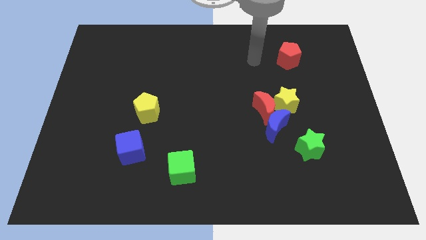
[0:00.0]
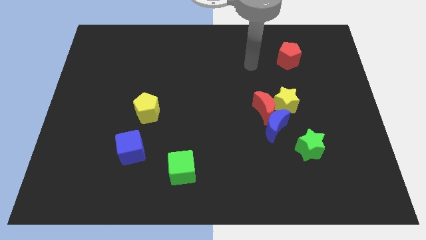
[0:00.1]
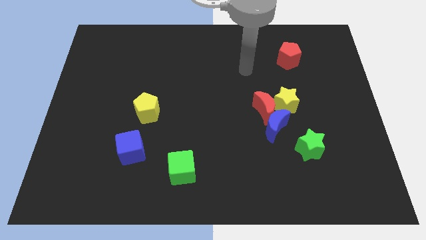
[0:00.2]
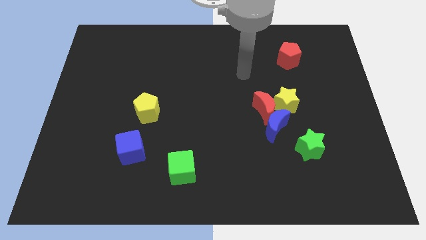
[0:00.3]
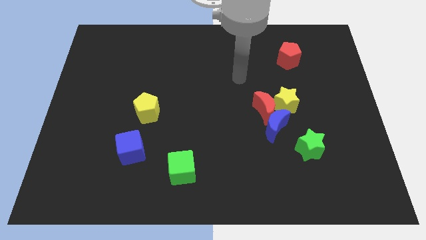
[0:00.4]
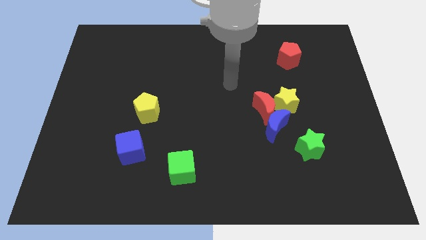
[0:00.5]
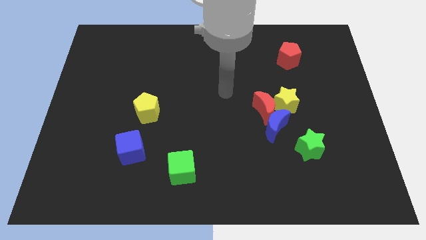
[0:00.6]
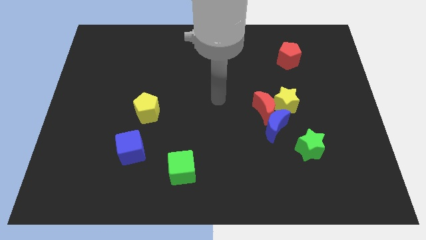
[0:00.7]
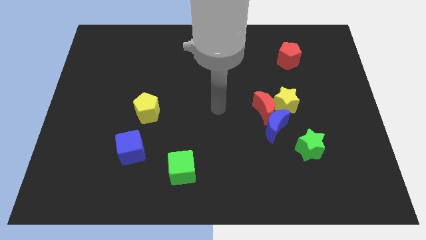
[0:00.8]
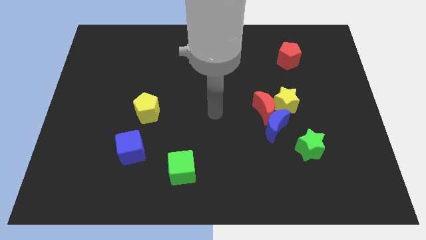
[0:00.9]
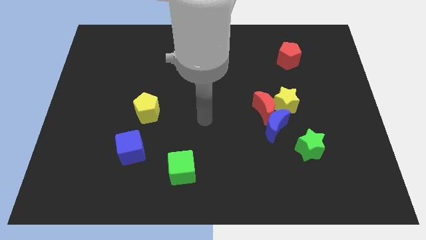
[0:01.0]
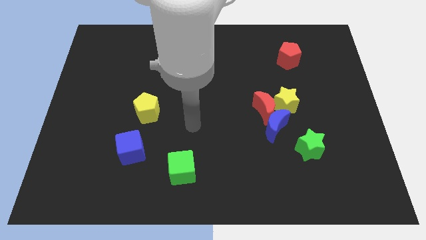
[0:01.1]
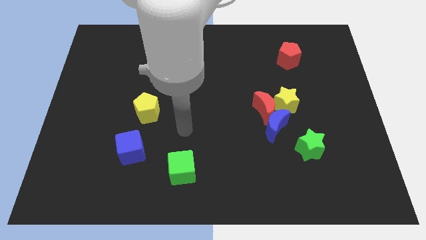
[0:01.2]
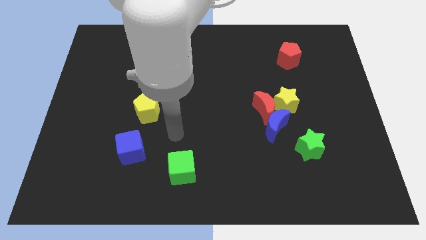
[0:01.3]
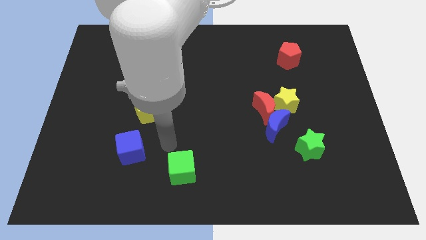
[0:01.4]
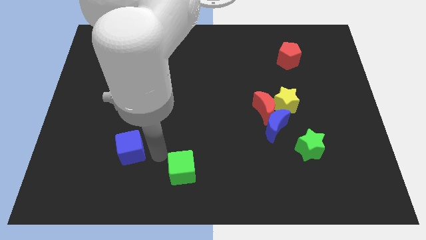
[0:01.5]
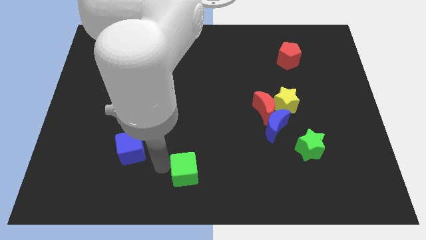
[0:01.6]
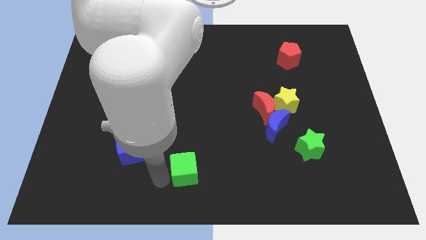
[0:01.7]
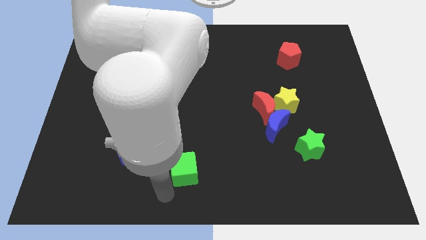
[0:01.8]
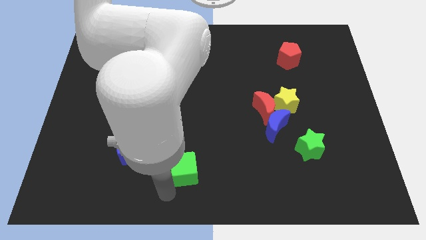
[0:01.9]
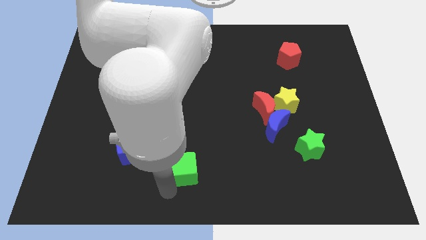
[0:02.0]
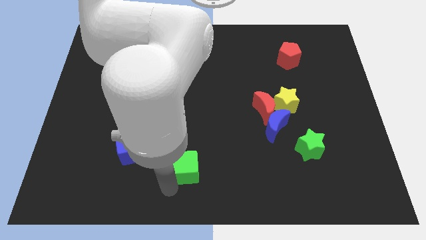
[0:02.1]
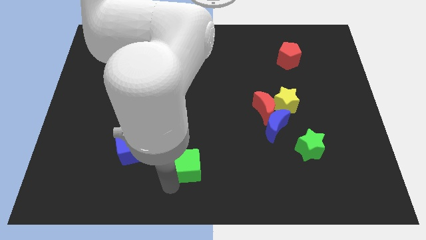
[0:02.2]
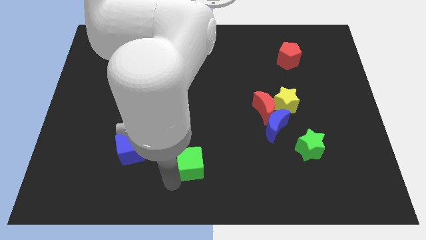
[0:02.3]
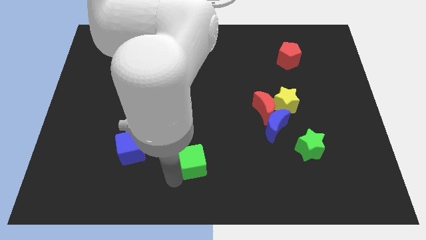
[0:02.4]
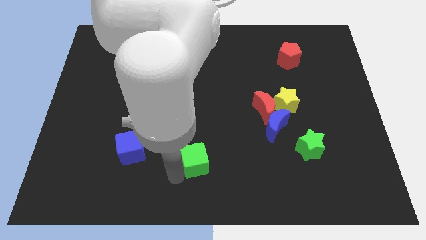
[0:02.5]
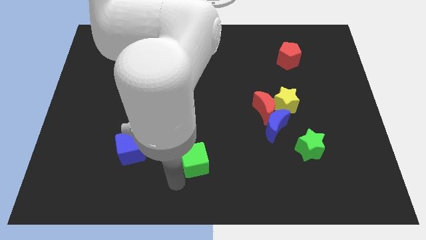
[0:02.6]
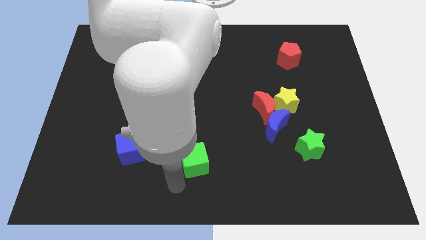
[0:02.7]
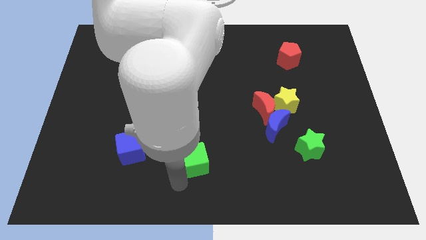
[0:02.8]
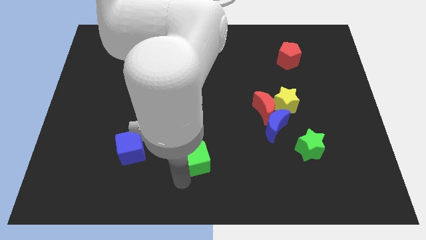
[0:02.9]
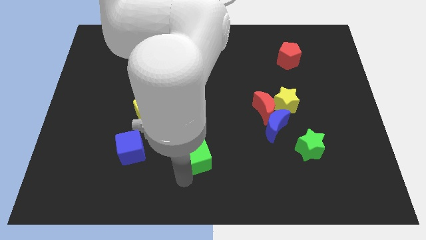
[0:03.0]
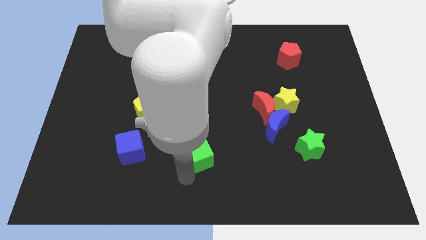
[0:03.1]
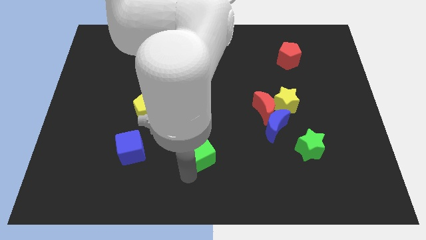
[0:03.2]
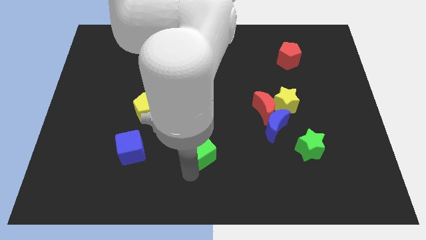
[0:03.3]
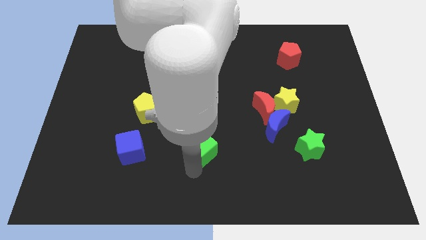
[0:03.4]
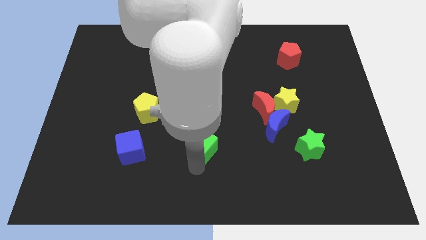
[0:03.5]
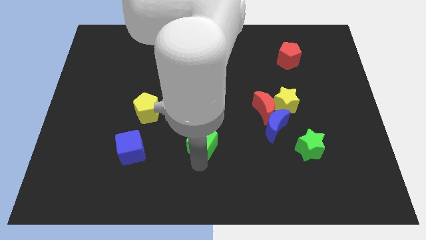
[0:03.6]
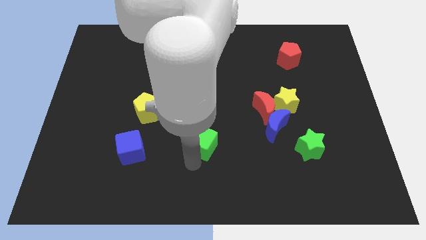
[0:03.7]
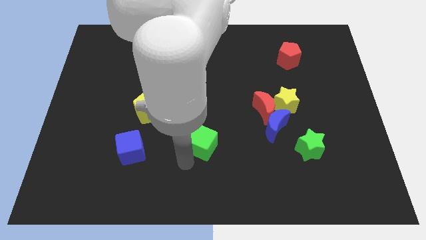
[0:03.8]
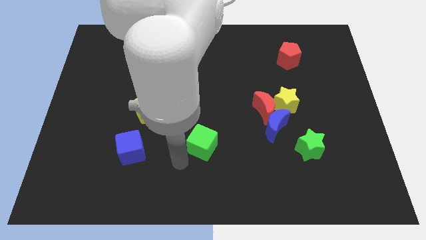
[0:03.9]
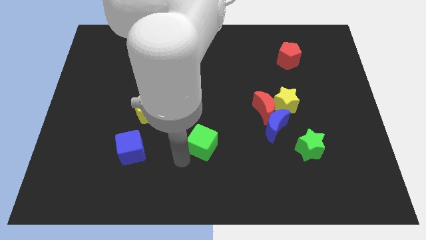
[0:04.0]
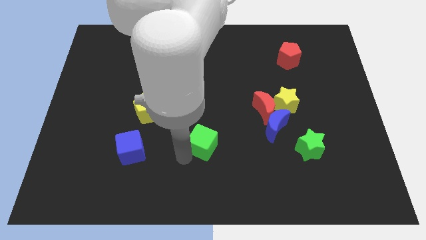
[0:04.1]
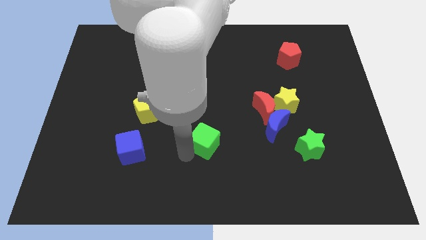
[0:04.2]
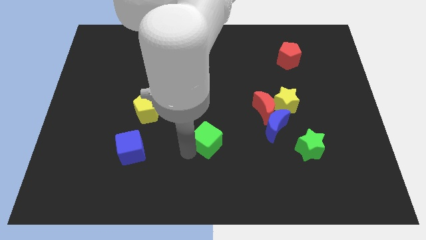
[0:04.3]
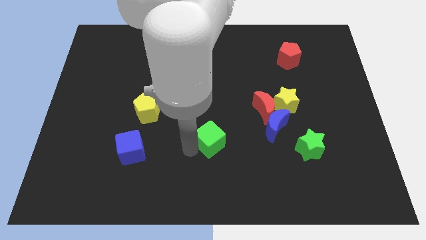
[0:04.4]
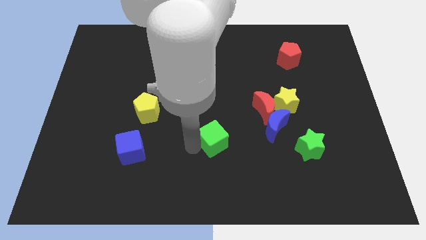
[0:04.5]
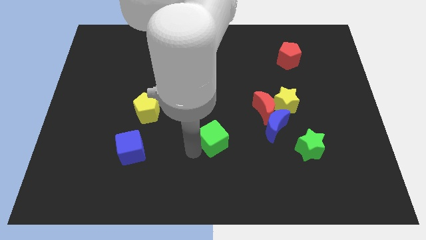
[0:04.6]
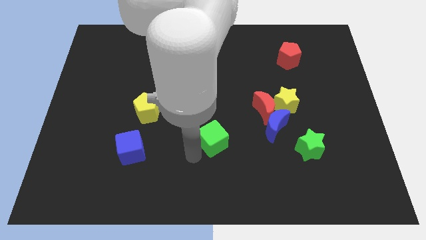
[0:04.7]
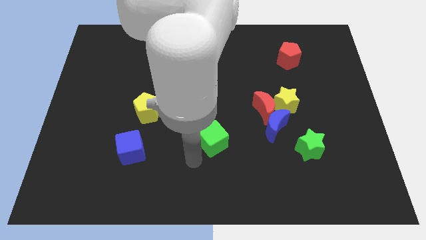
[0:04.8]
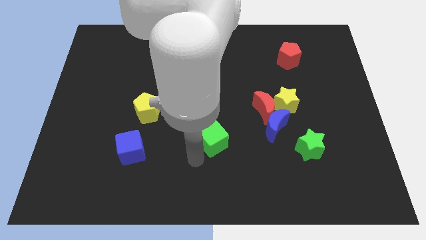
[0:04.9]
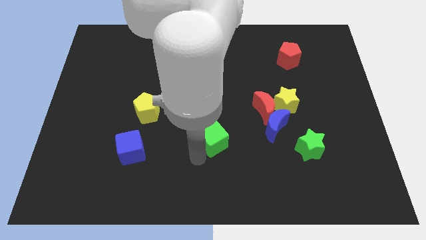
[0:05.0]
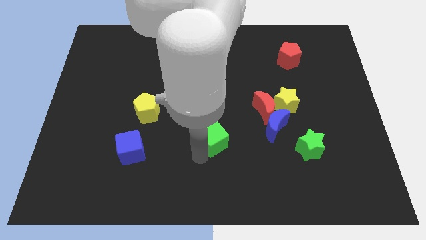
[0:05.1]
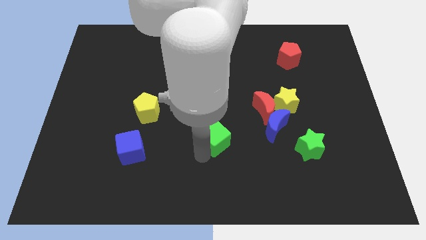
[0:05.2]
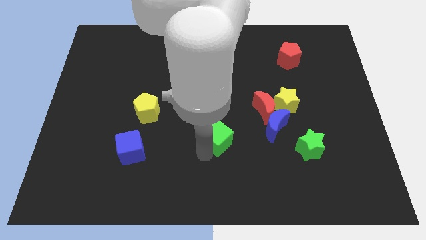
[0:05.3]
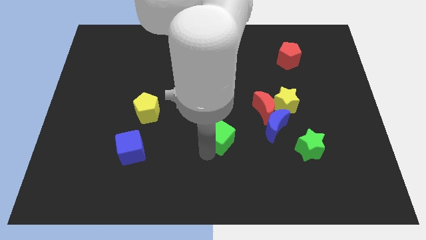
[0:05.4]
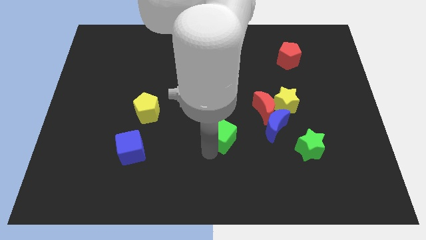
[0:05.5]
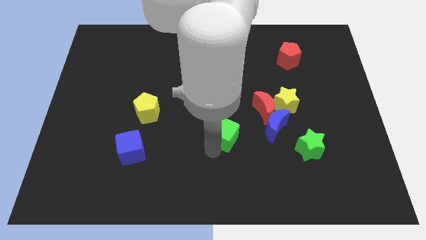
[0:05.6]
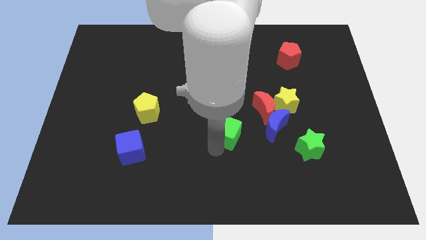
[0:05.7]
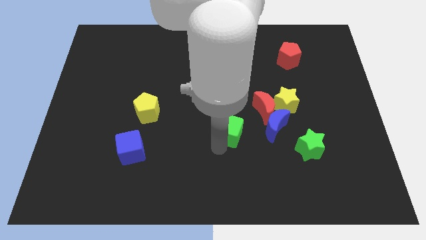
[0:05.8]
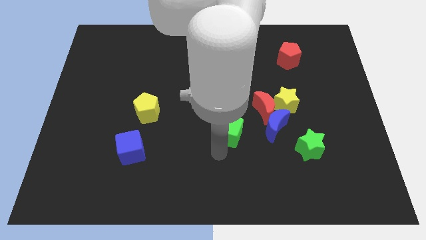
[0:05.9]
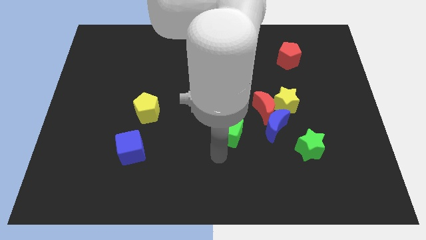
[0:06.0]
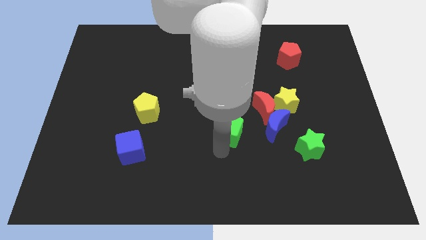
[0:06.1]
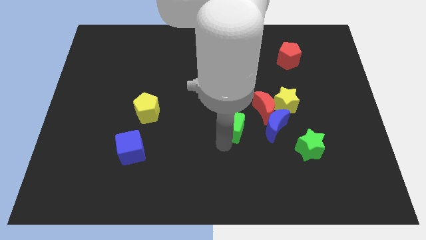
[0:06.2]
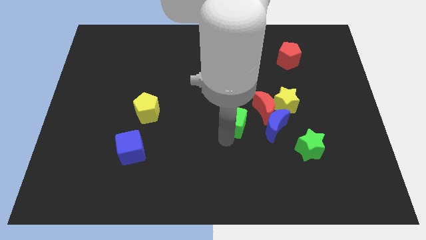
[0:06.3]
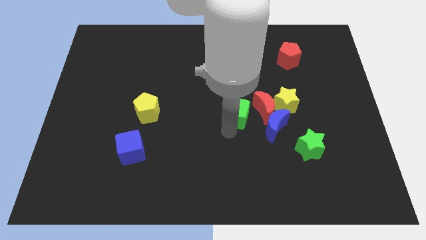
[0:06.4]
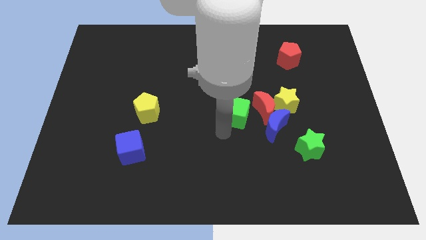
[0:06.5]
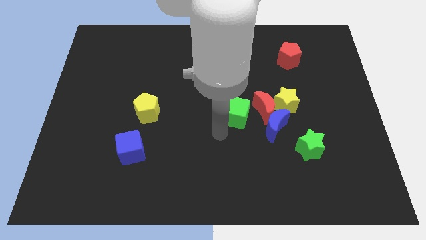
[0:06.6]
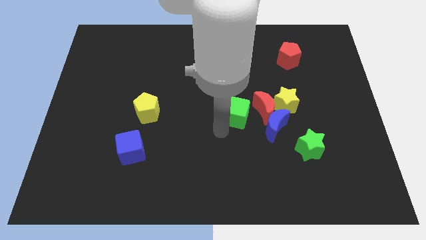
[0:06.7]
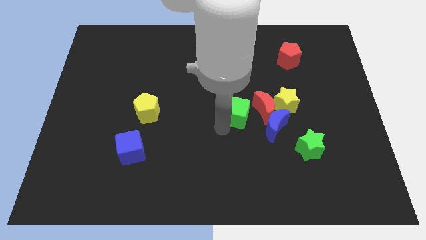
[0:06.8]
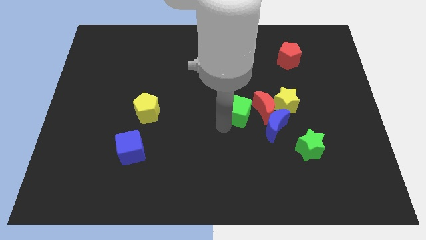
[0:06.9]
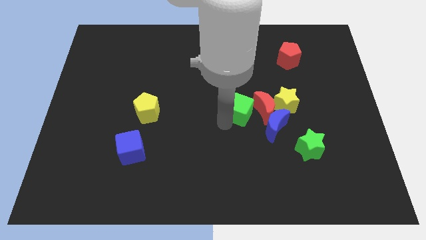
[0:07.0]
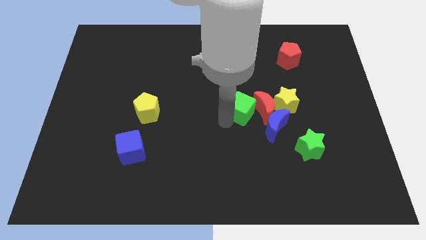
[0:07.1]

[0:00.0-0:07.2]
push the green cube up and right diagonally

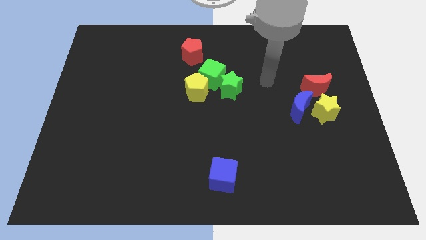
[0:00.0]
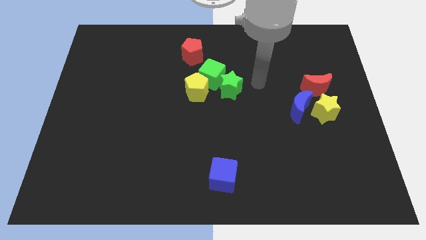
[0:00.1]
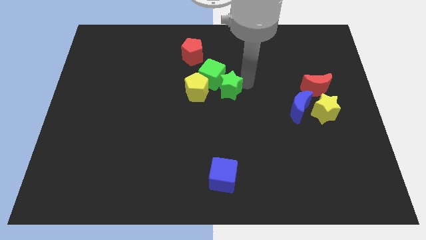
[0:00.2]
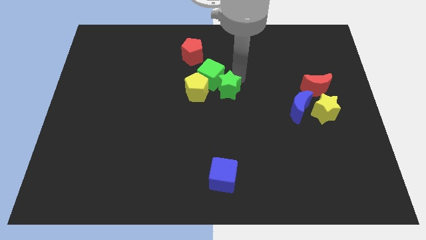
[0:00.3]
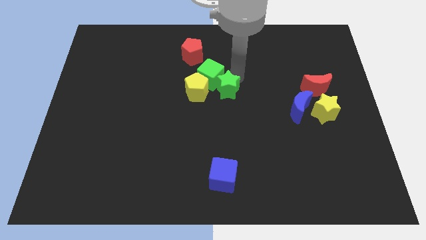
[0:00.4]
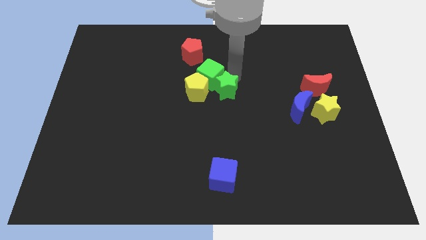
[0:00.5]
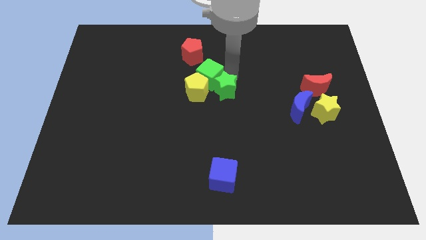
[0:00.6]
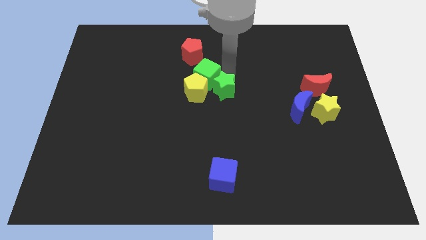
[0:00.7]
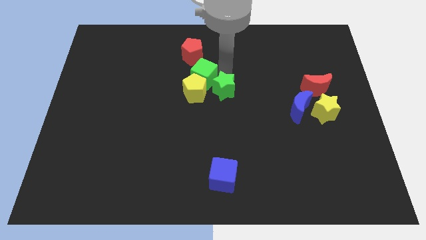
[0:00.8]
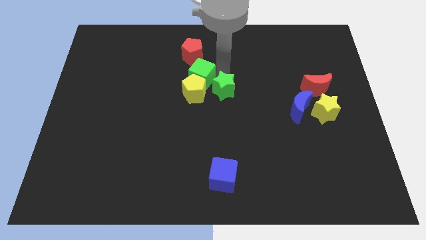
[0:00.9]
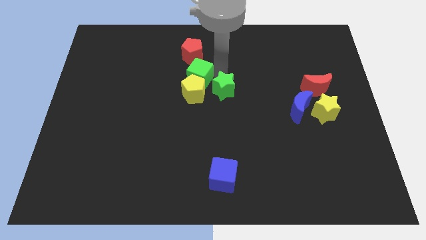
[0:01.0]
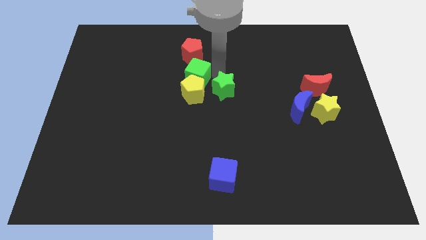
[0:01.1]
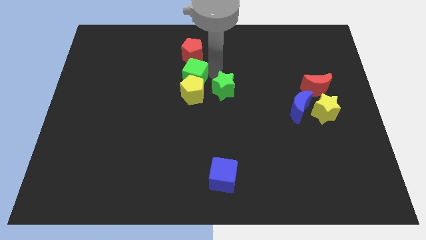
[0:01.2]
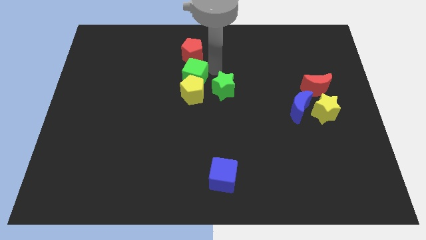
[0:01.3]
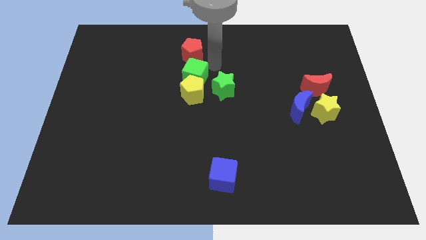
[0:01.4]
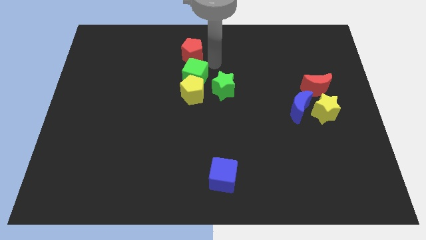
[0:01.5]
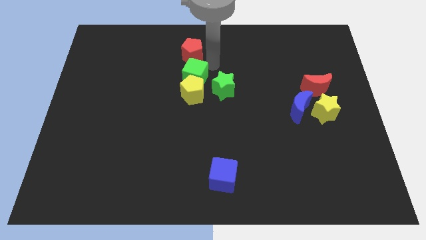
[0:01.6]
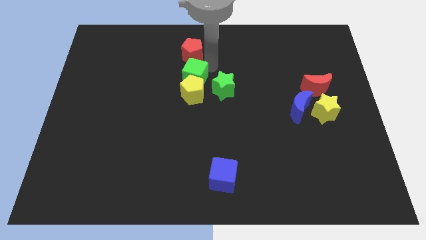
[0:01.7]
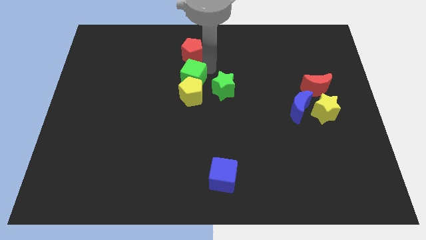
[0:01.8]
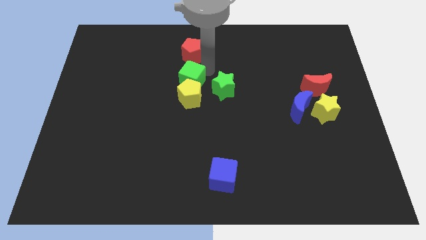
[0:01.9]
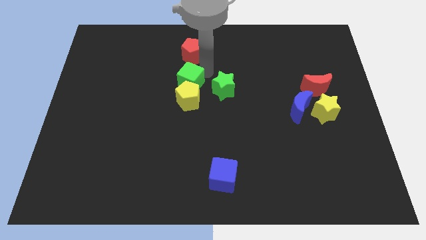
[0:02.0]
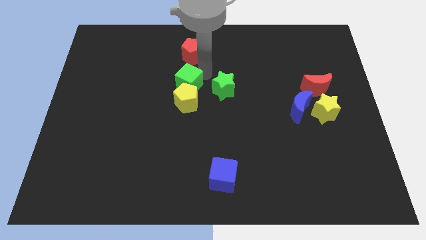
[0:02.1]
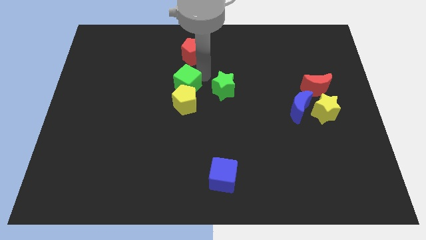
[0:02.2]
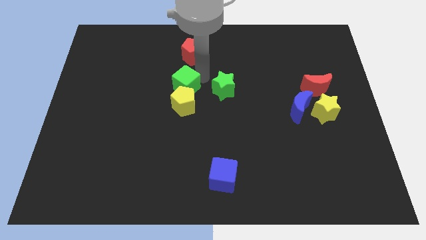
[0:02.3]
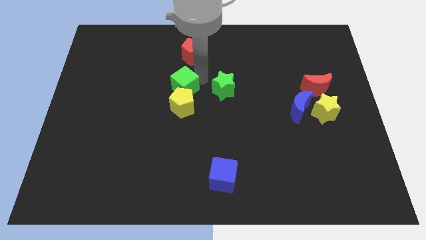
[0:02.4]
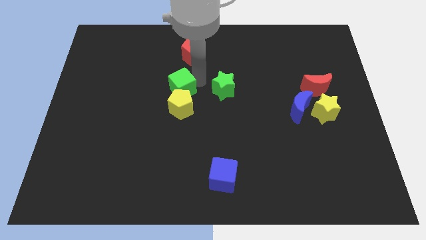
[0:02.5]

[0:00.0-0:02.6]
slightly move the green cube down and left
